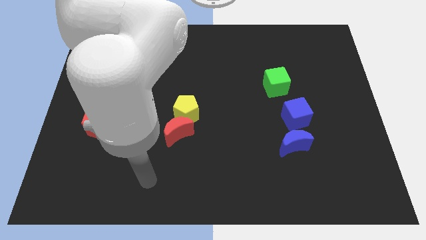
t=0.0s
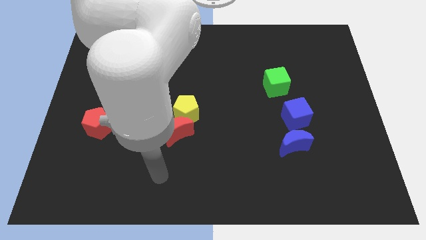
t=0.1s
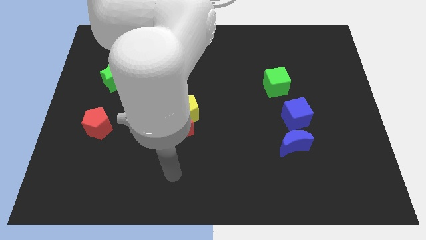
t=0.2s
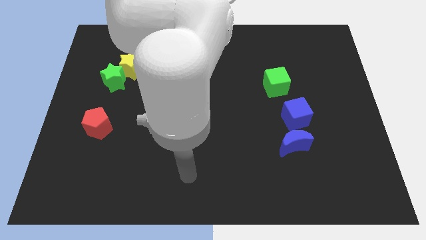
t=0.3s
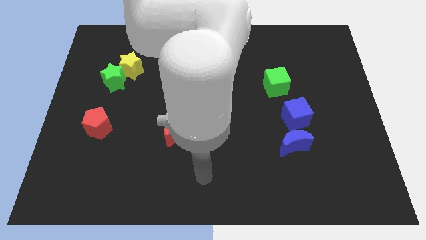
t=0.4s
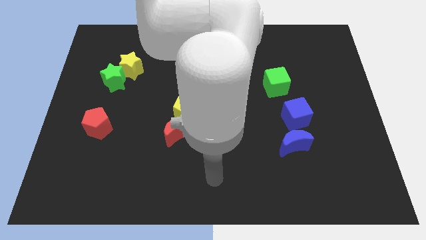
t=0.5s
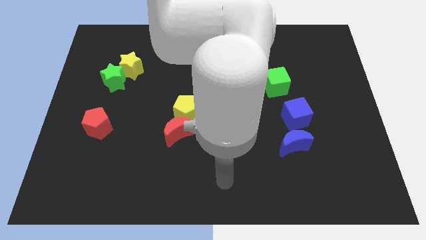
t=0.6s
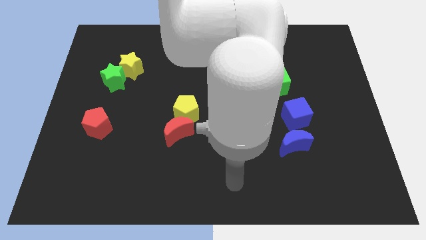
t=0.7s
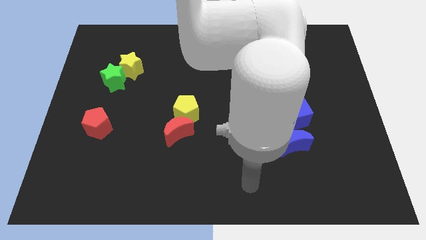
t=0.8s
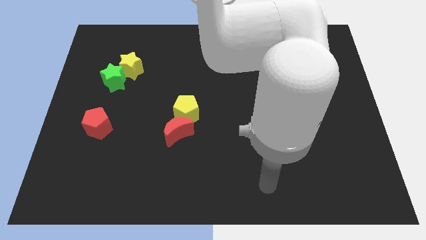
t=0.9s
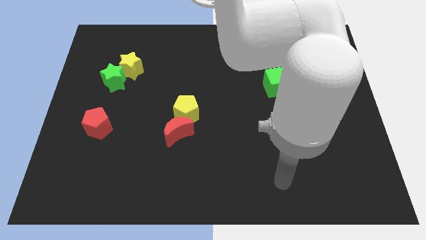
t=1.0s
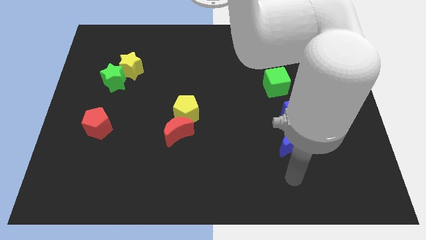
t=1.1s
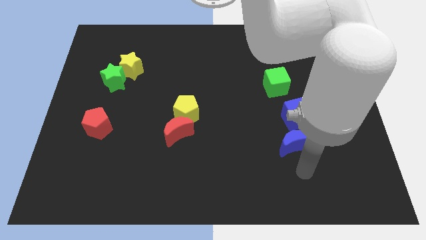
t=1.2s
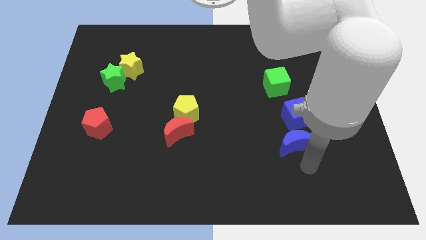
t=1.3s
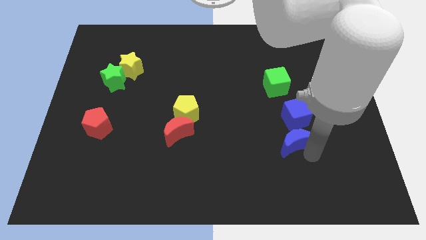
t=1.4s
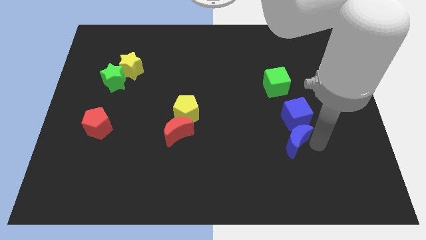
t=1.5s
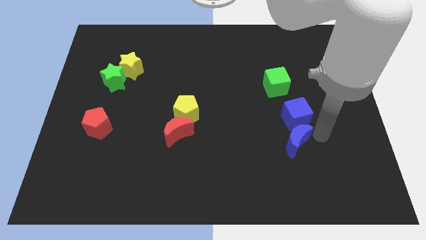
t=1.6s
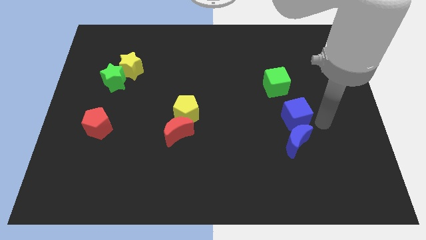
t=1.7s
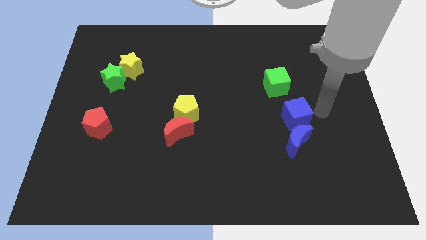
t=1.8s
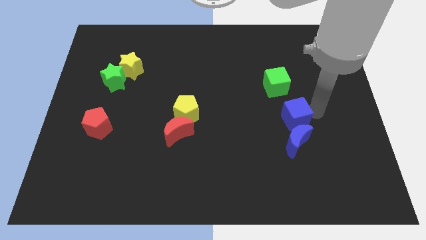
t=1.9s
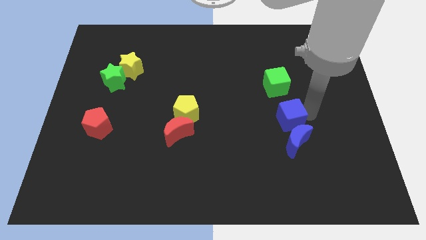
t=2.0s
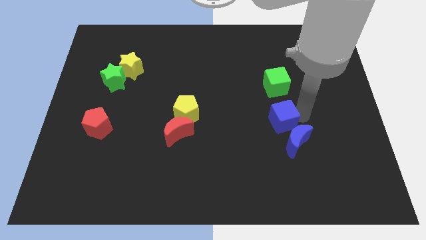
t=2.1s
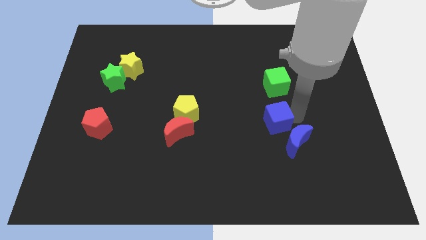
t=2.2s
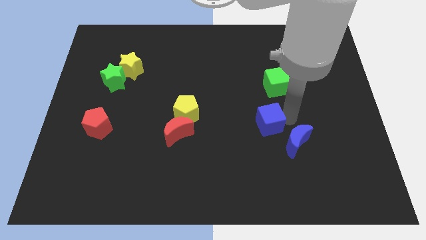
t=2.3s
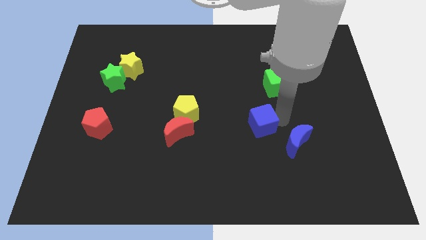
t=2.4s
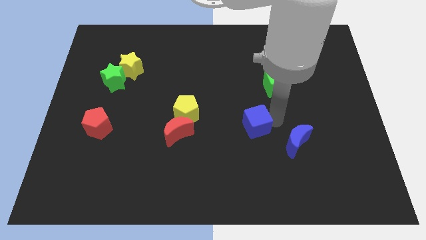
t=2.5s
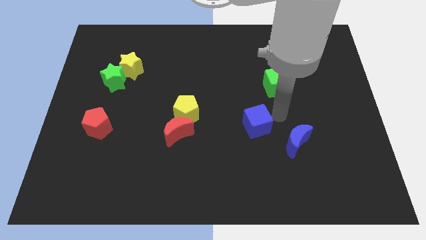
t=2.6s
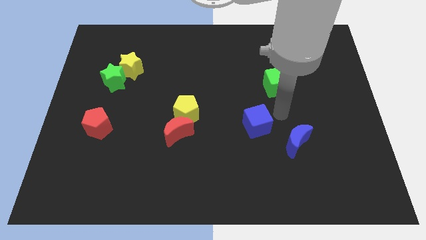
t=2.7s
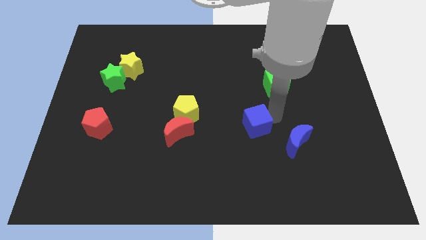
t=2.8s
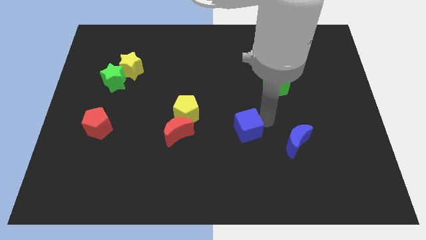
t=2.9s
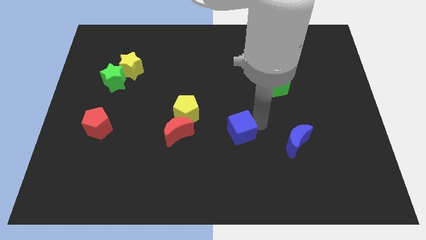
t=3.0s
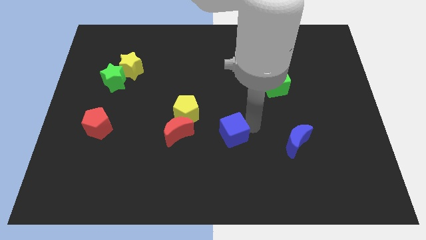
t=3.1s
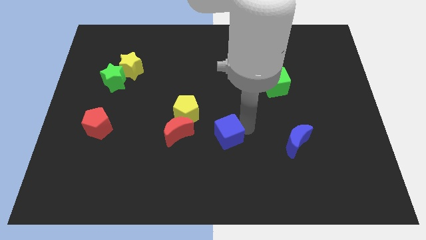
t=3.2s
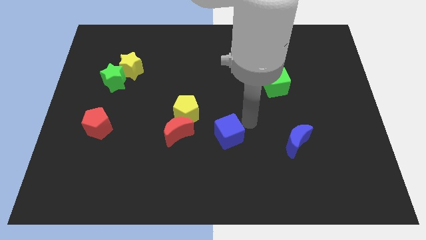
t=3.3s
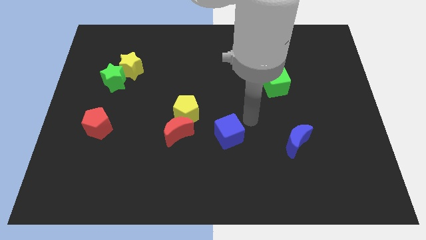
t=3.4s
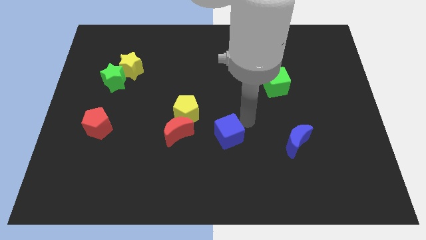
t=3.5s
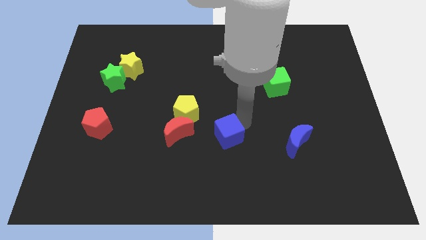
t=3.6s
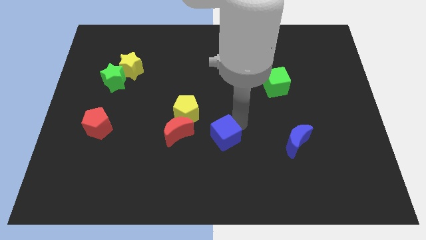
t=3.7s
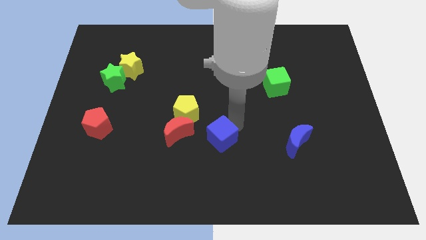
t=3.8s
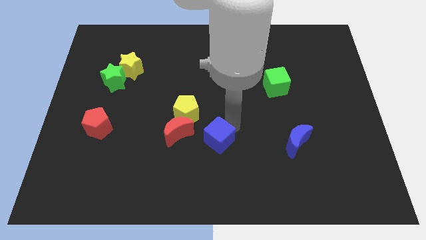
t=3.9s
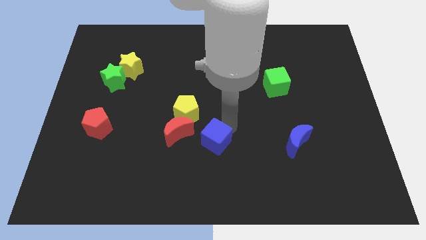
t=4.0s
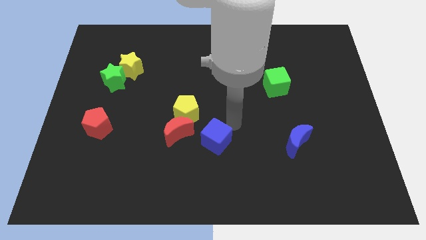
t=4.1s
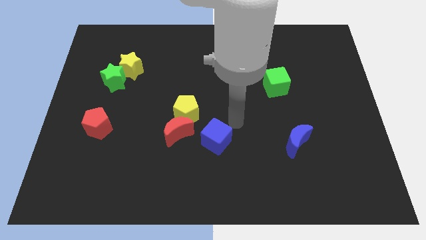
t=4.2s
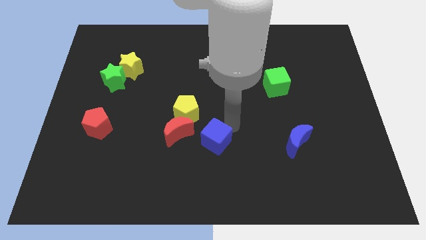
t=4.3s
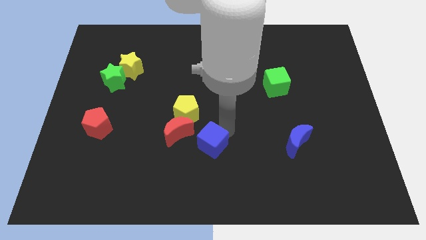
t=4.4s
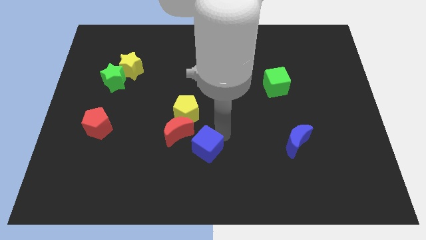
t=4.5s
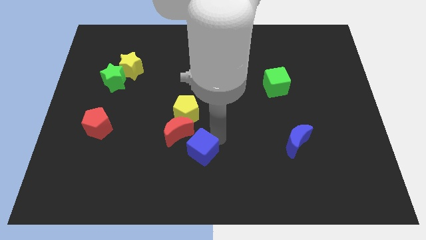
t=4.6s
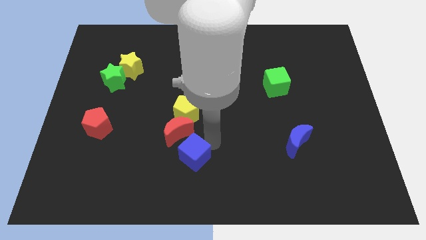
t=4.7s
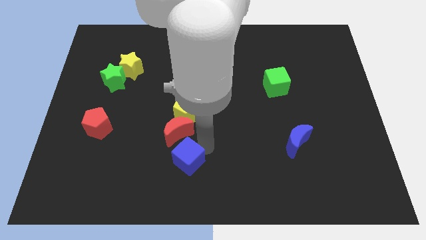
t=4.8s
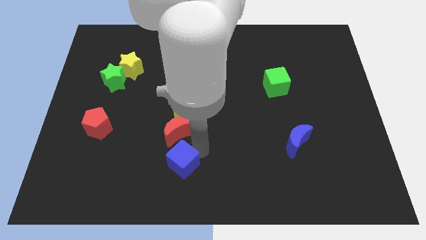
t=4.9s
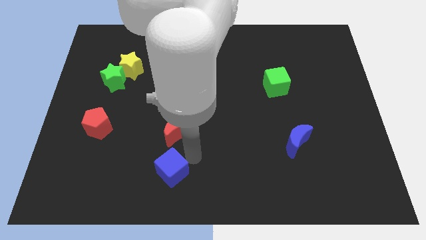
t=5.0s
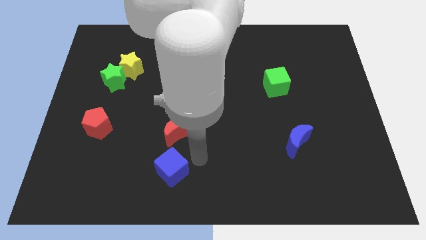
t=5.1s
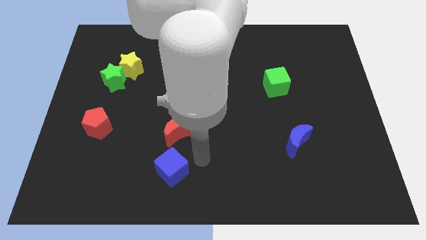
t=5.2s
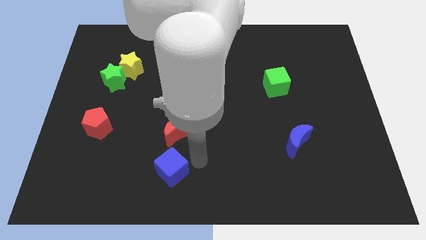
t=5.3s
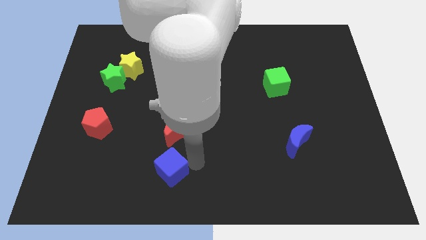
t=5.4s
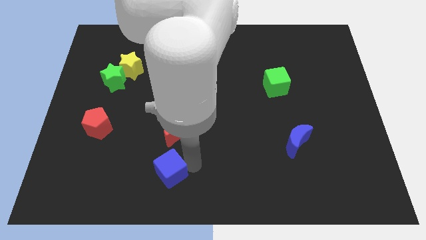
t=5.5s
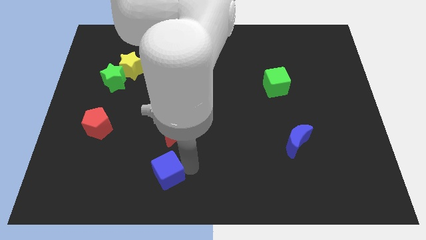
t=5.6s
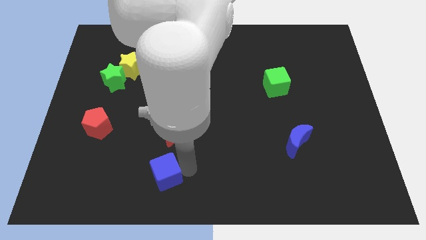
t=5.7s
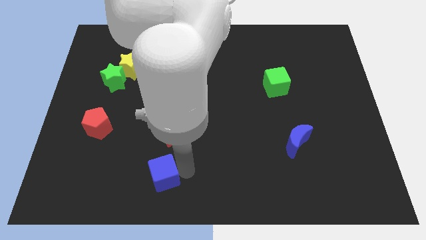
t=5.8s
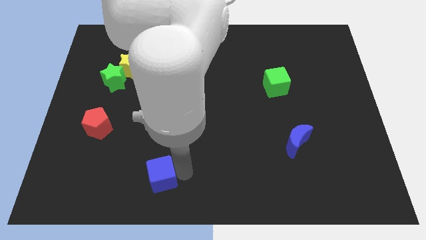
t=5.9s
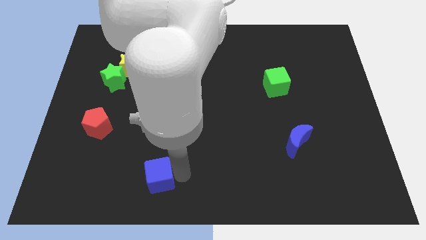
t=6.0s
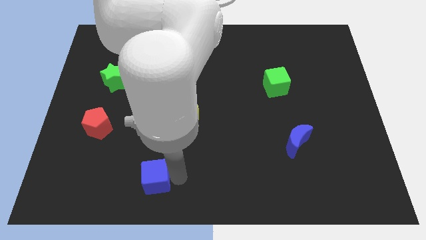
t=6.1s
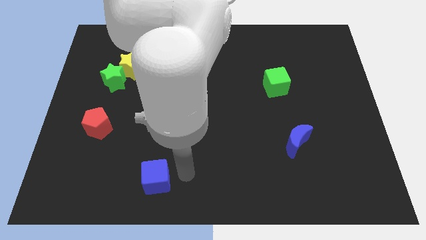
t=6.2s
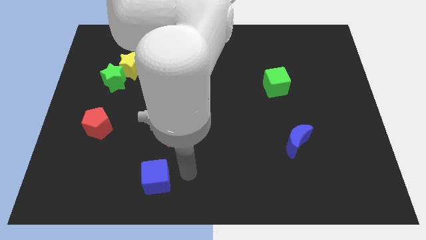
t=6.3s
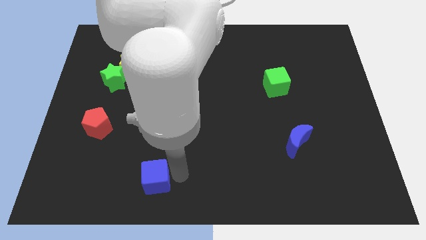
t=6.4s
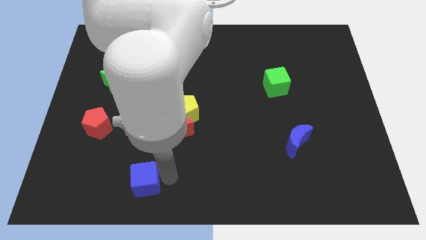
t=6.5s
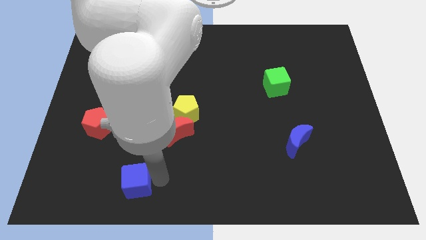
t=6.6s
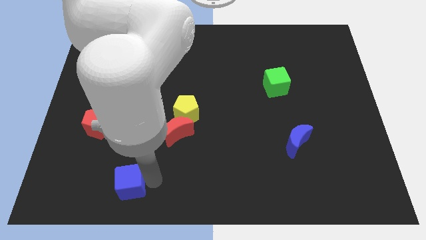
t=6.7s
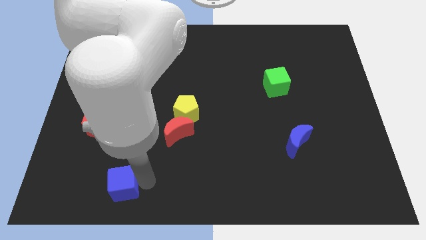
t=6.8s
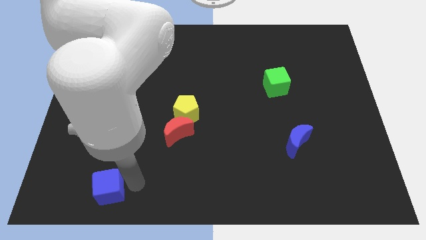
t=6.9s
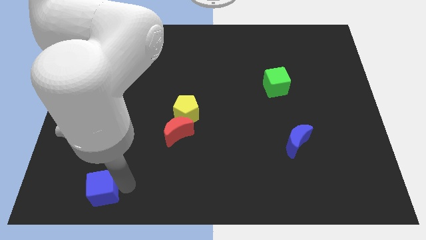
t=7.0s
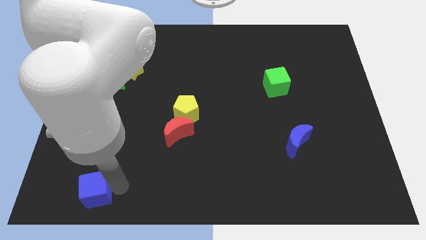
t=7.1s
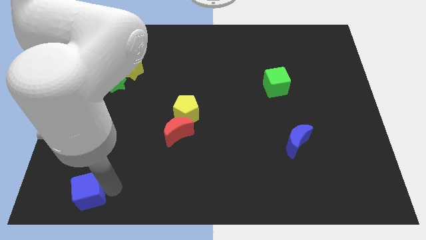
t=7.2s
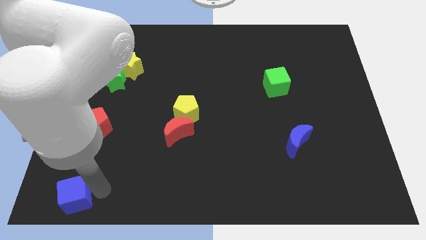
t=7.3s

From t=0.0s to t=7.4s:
move the blue cube to the bottom left corner
